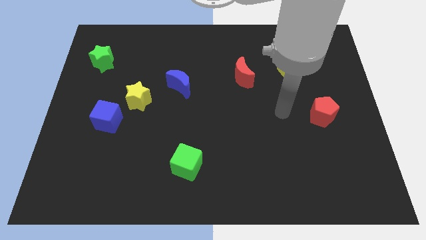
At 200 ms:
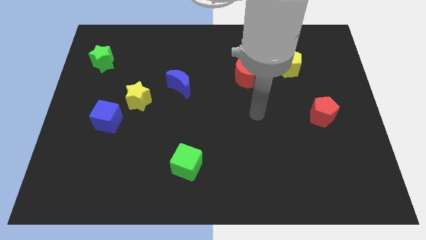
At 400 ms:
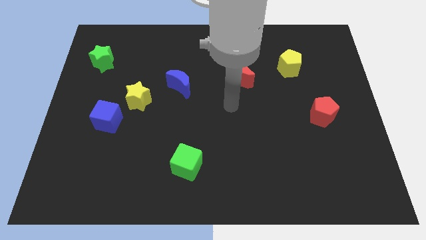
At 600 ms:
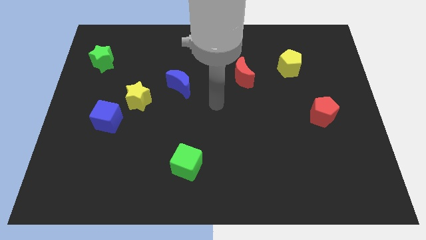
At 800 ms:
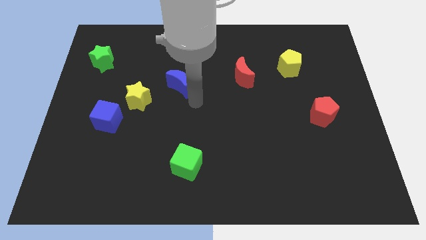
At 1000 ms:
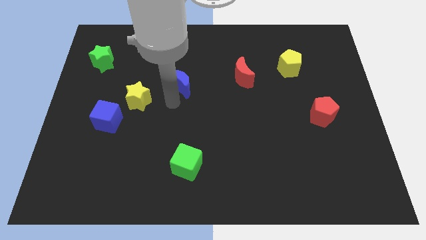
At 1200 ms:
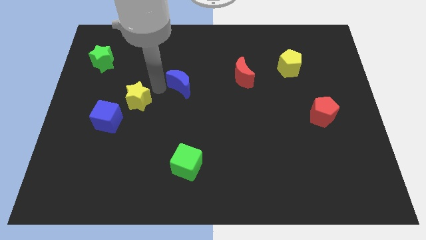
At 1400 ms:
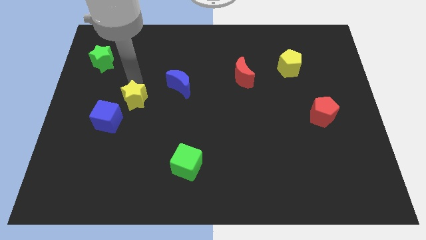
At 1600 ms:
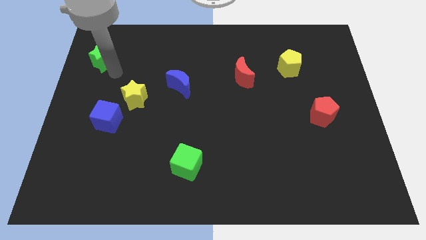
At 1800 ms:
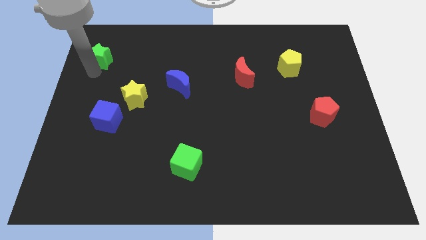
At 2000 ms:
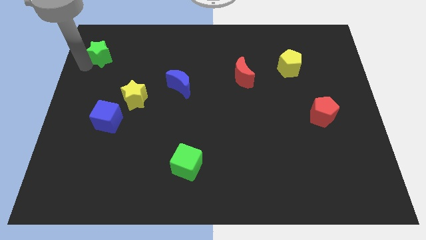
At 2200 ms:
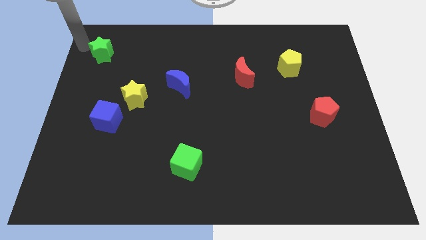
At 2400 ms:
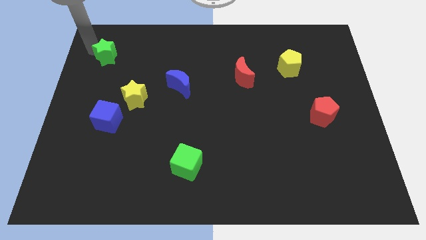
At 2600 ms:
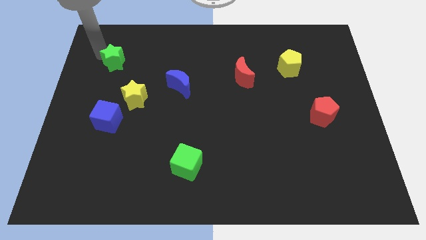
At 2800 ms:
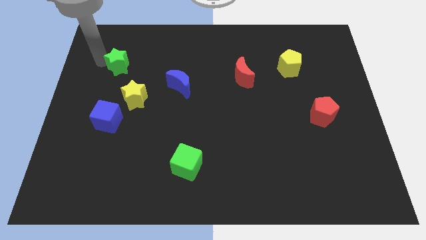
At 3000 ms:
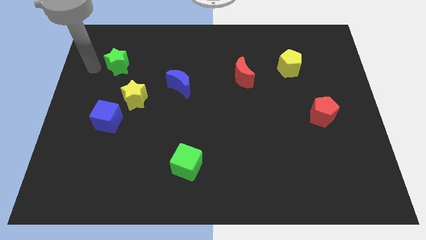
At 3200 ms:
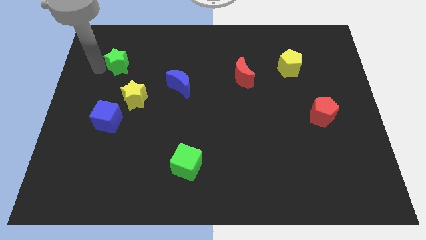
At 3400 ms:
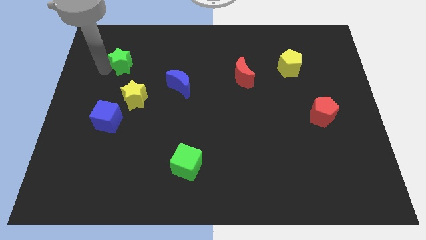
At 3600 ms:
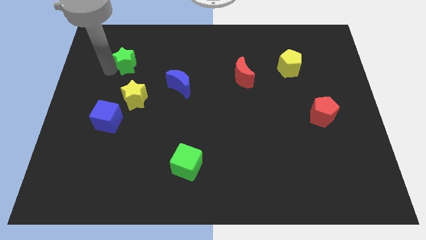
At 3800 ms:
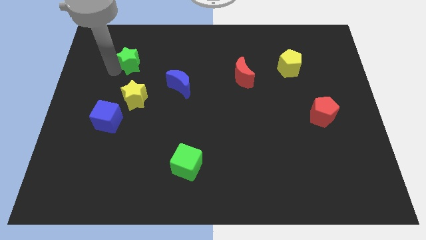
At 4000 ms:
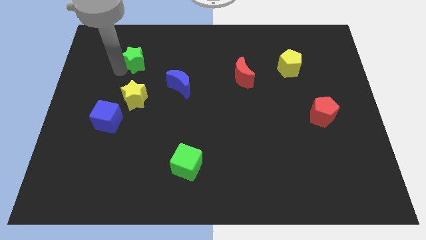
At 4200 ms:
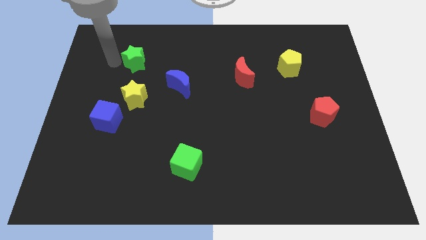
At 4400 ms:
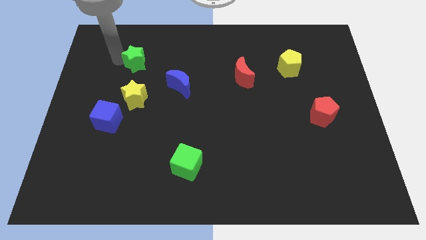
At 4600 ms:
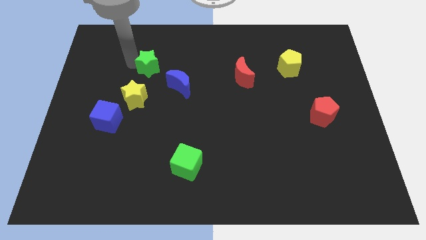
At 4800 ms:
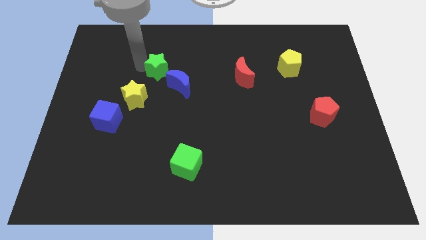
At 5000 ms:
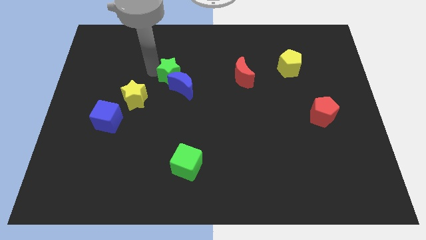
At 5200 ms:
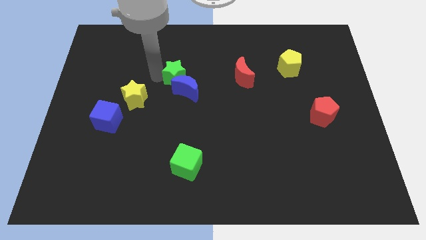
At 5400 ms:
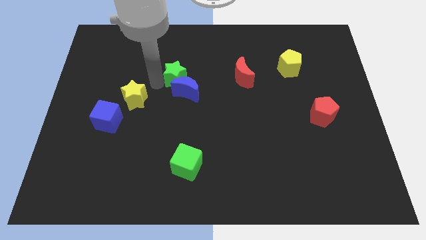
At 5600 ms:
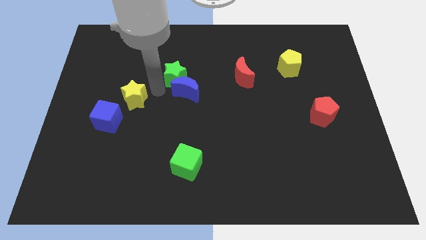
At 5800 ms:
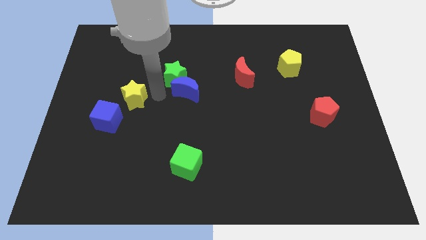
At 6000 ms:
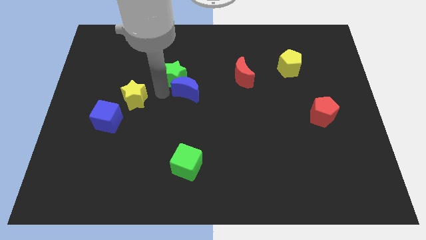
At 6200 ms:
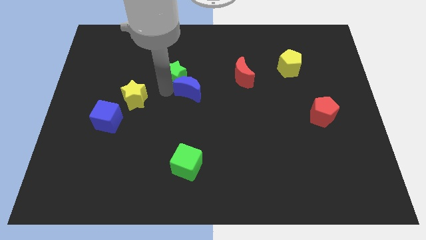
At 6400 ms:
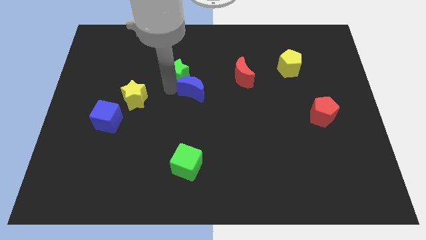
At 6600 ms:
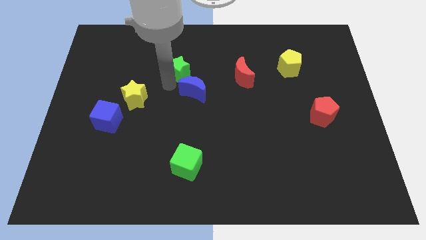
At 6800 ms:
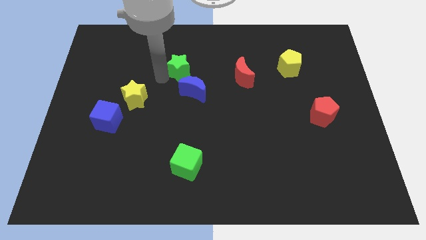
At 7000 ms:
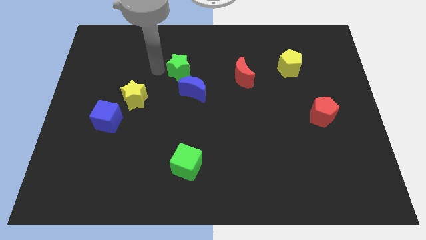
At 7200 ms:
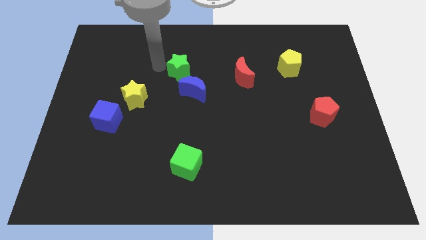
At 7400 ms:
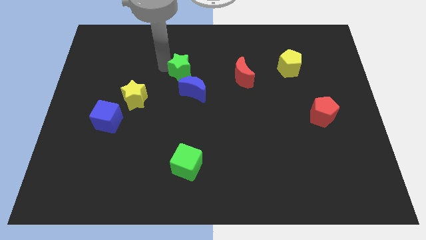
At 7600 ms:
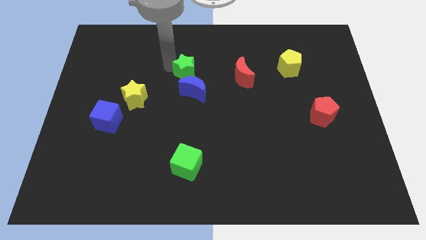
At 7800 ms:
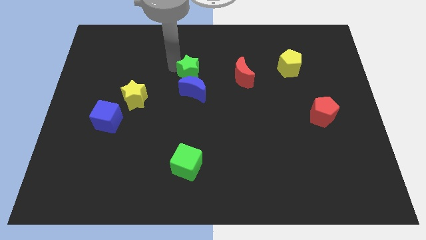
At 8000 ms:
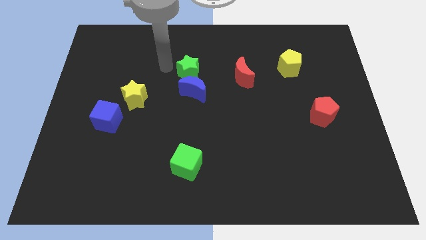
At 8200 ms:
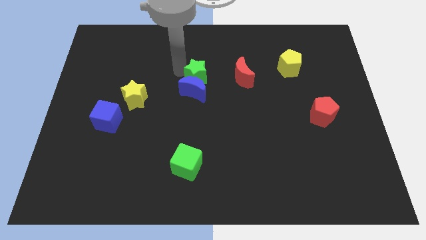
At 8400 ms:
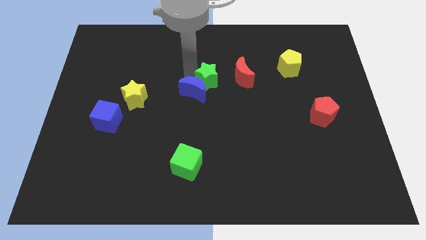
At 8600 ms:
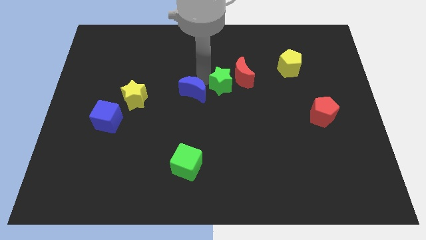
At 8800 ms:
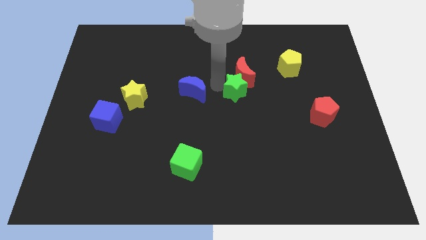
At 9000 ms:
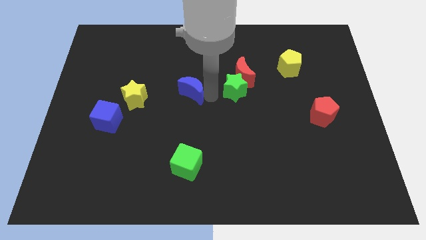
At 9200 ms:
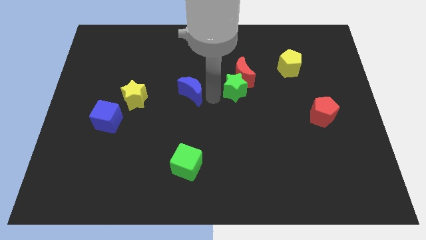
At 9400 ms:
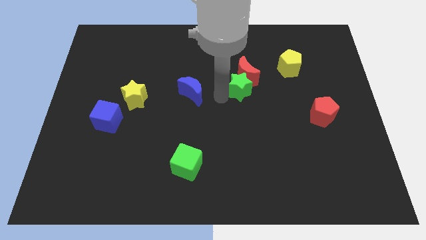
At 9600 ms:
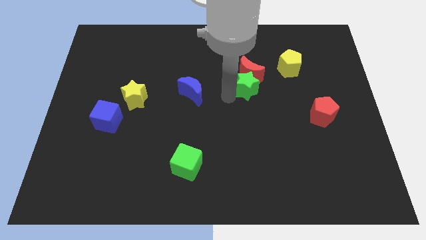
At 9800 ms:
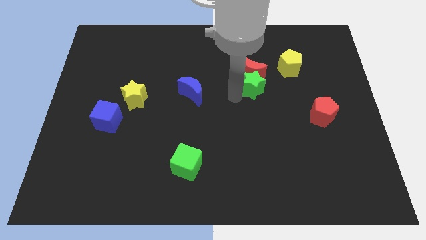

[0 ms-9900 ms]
move the green star to the bottom left of the yellow pentagon

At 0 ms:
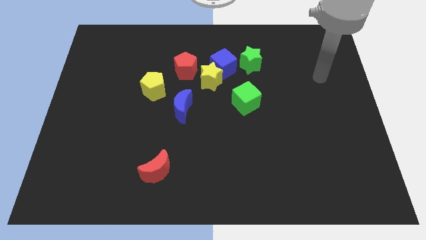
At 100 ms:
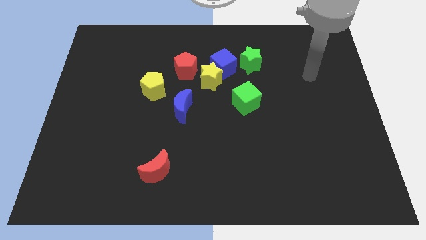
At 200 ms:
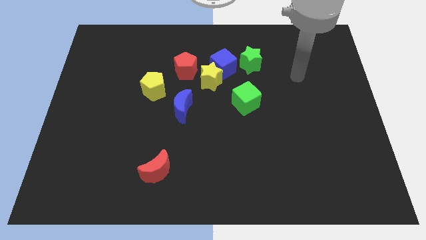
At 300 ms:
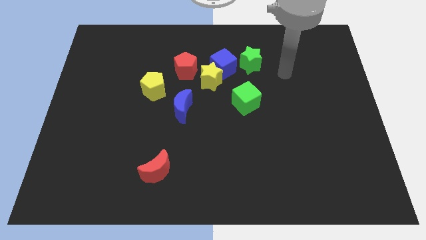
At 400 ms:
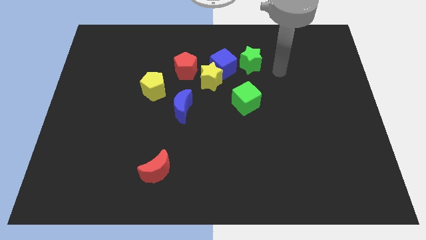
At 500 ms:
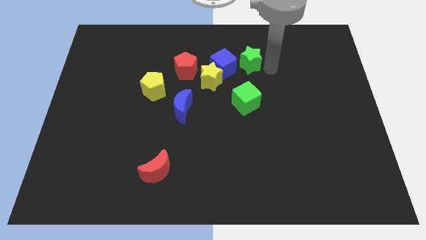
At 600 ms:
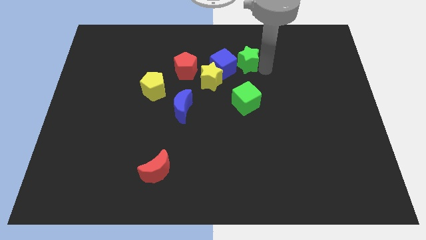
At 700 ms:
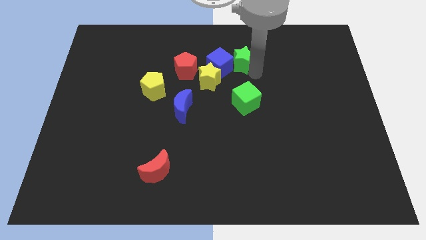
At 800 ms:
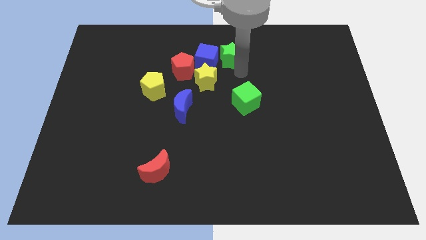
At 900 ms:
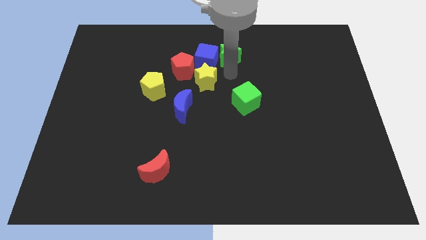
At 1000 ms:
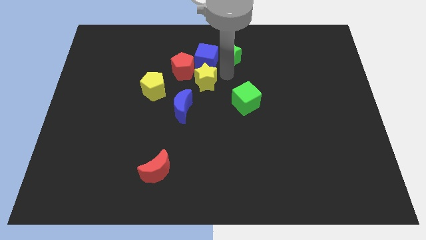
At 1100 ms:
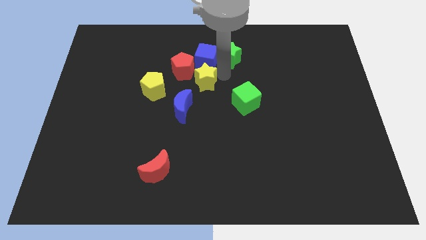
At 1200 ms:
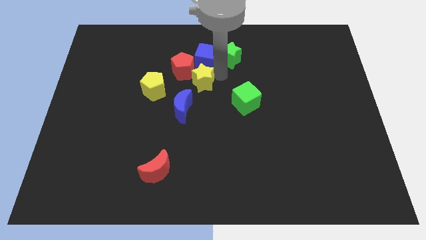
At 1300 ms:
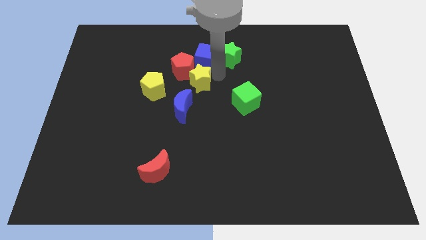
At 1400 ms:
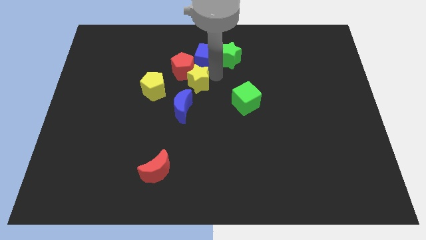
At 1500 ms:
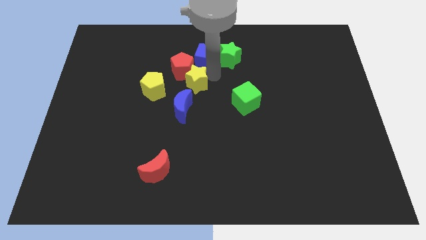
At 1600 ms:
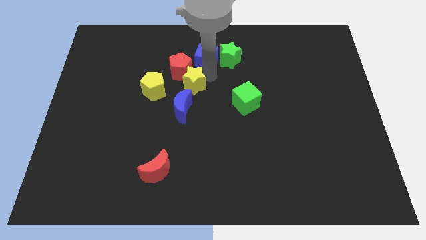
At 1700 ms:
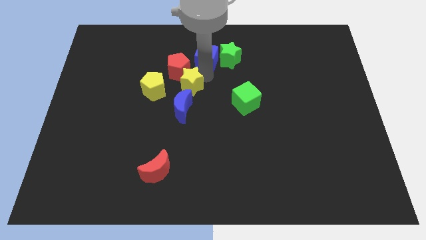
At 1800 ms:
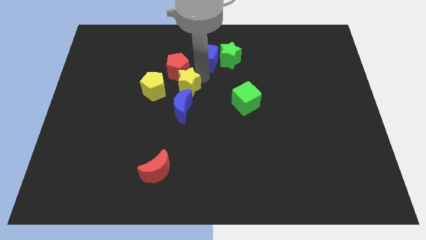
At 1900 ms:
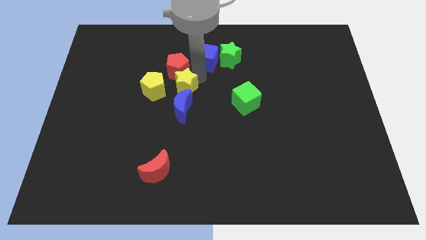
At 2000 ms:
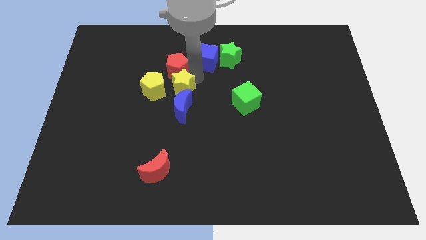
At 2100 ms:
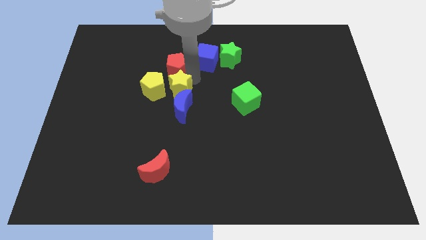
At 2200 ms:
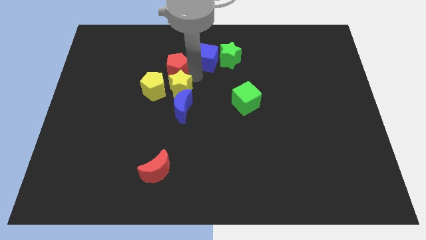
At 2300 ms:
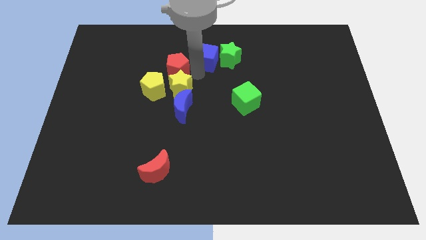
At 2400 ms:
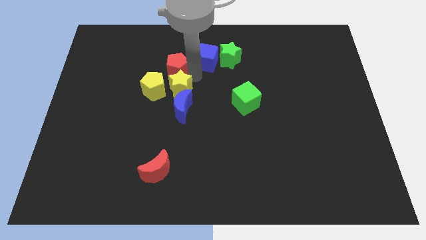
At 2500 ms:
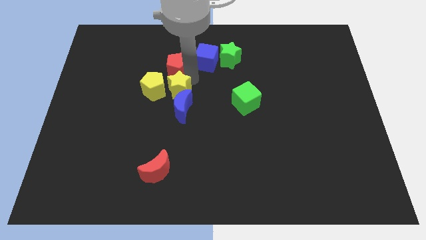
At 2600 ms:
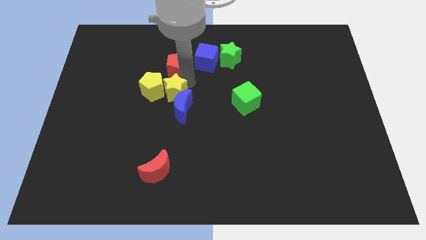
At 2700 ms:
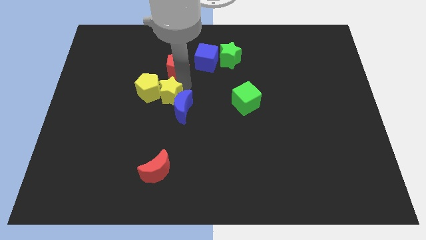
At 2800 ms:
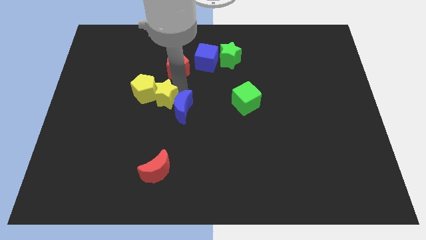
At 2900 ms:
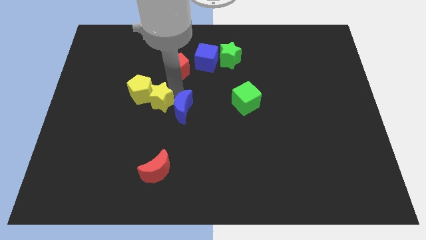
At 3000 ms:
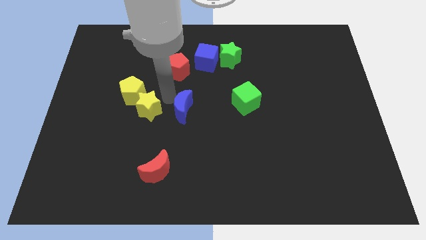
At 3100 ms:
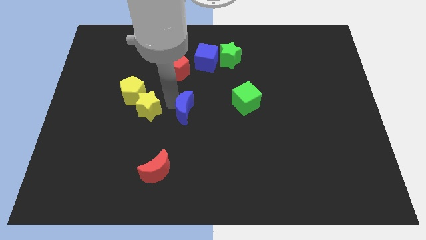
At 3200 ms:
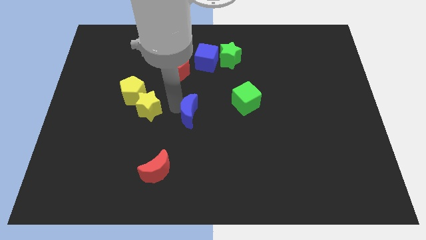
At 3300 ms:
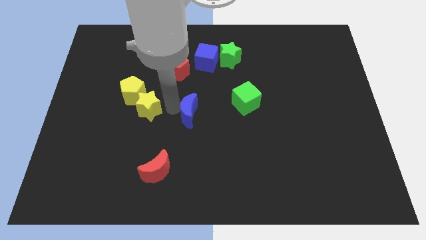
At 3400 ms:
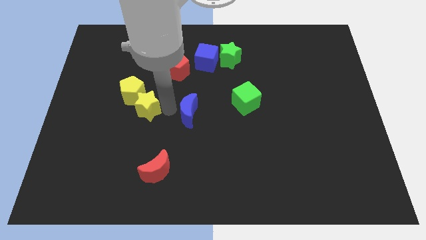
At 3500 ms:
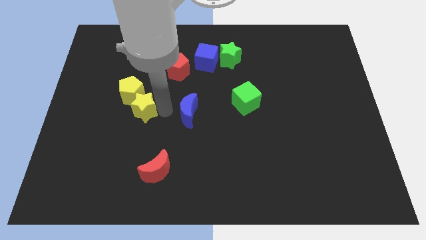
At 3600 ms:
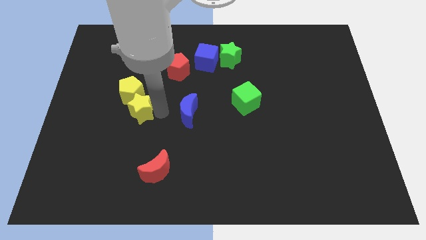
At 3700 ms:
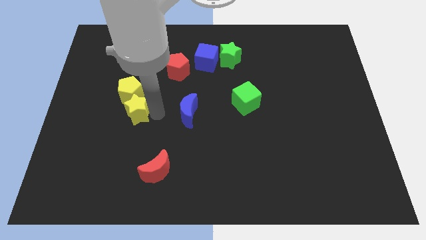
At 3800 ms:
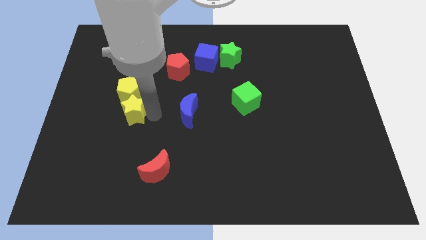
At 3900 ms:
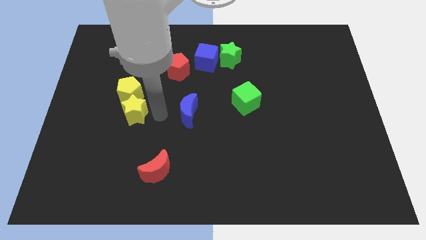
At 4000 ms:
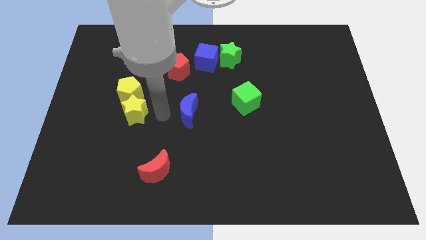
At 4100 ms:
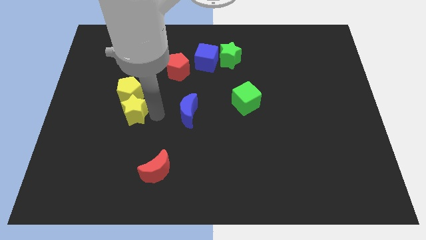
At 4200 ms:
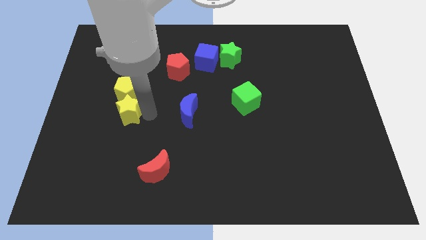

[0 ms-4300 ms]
move the yellow star to the bottom left side of the yellow pentagon
